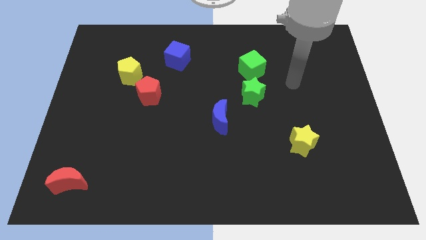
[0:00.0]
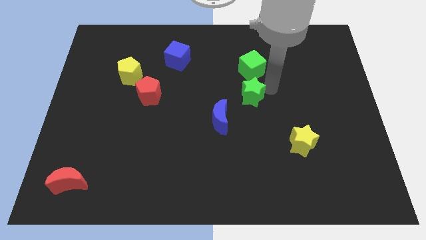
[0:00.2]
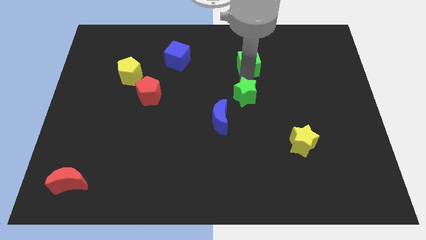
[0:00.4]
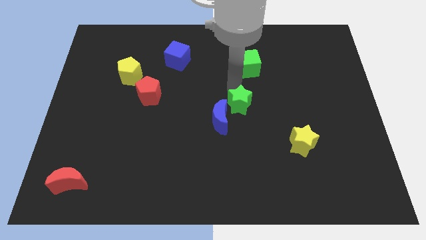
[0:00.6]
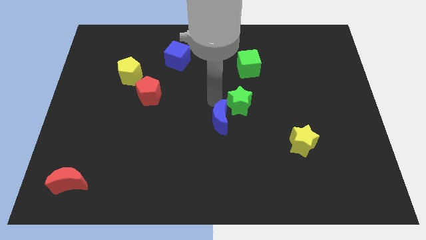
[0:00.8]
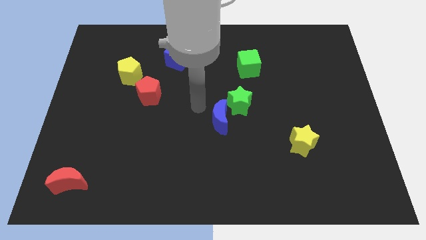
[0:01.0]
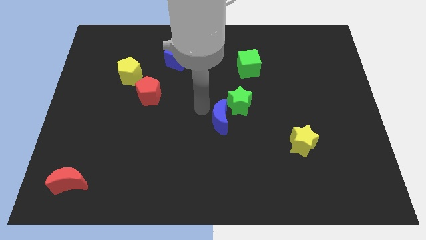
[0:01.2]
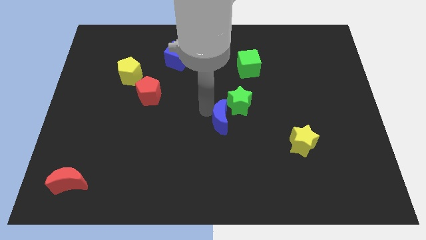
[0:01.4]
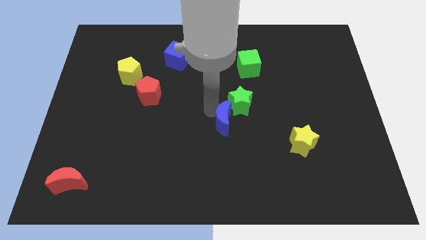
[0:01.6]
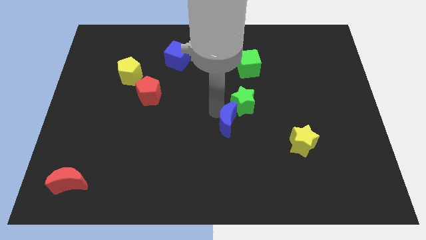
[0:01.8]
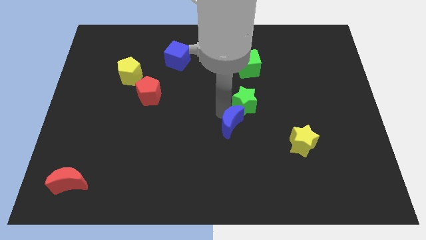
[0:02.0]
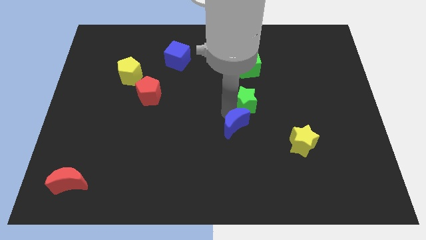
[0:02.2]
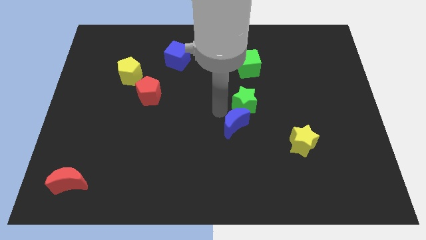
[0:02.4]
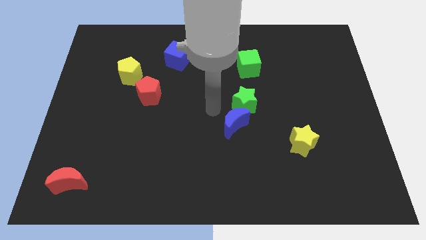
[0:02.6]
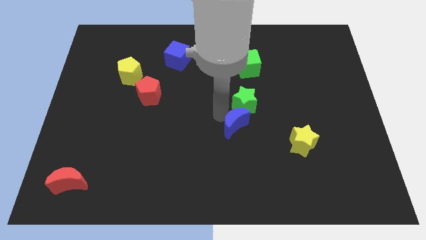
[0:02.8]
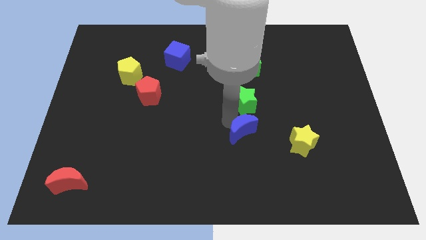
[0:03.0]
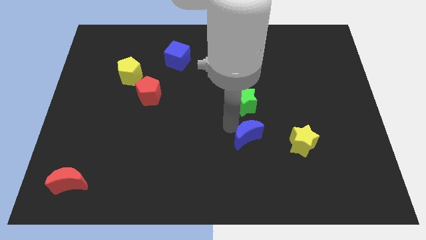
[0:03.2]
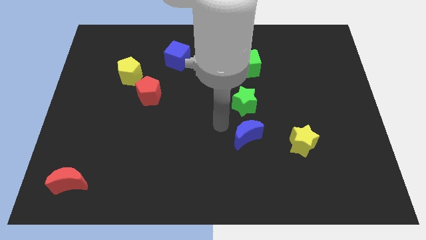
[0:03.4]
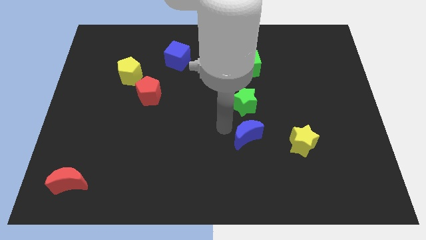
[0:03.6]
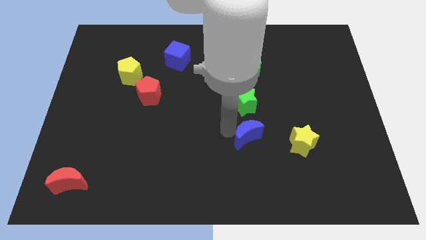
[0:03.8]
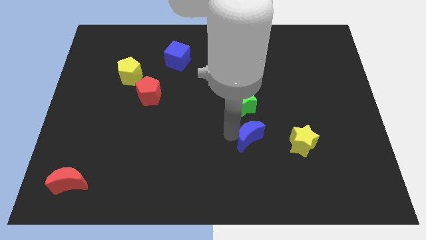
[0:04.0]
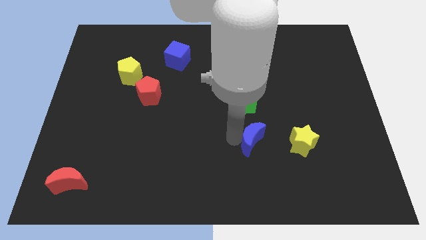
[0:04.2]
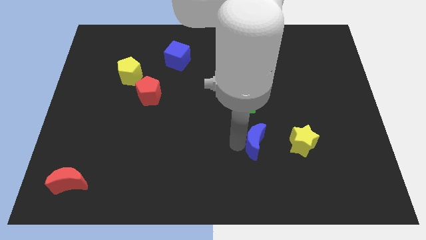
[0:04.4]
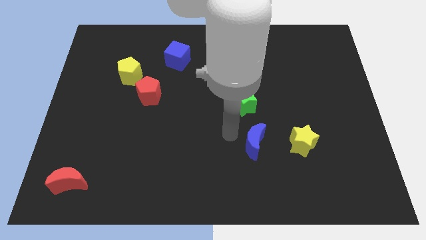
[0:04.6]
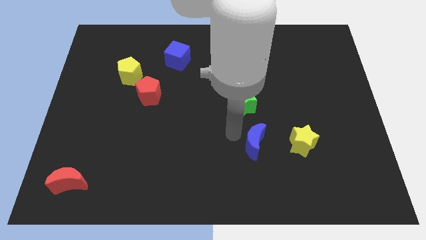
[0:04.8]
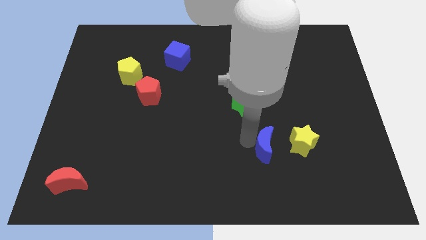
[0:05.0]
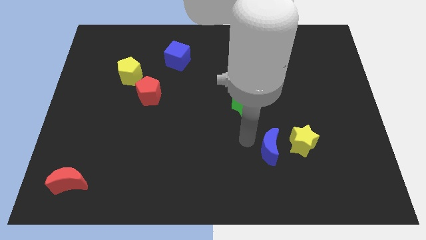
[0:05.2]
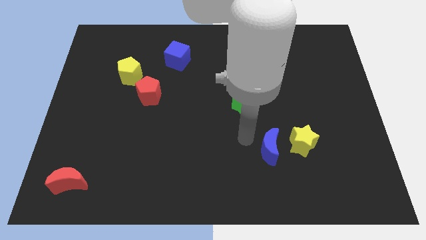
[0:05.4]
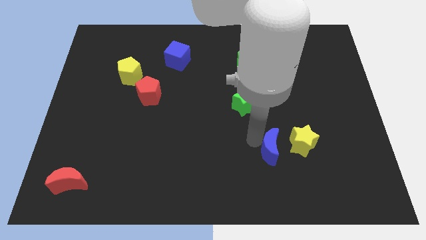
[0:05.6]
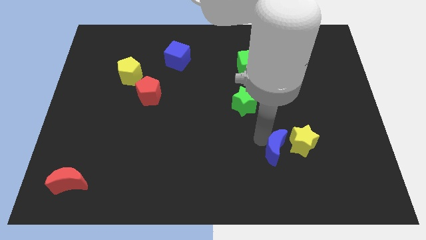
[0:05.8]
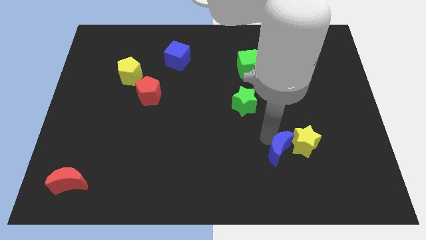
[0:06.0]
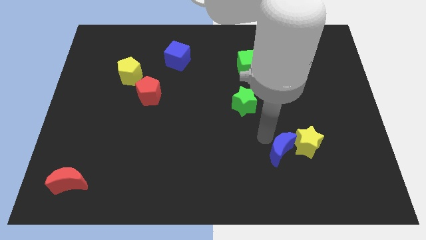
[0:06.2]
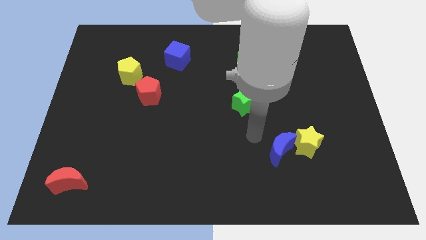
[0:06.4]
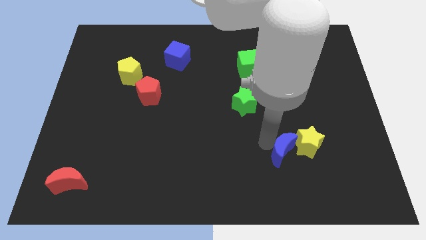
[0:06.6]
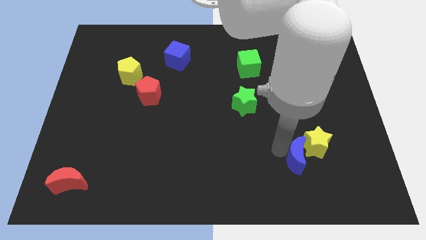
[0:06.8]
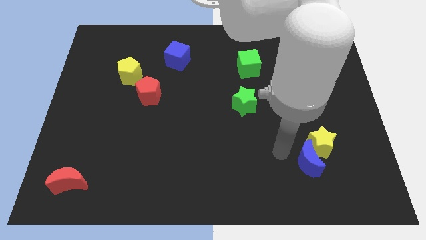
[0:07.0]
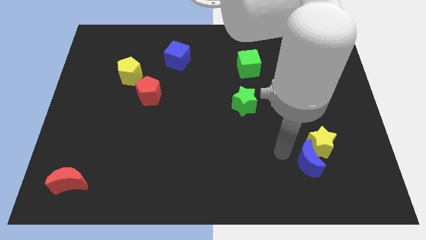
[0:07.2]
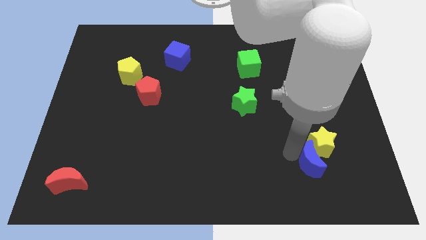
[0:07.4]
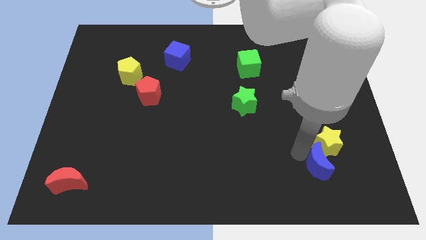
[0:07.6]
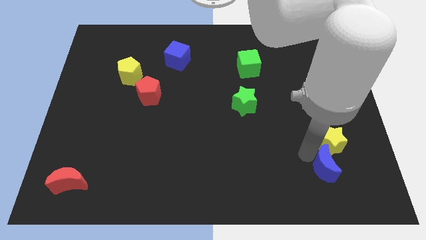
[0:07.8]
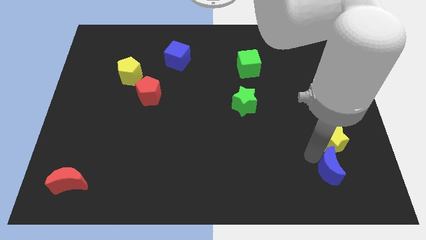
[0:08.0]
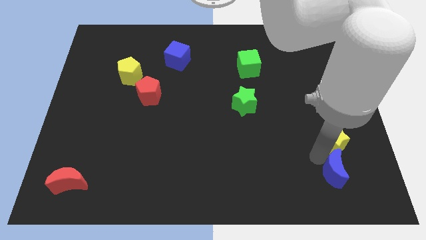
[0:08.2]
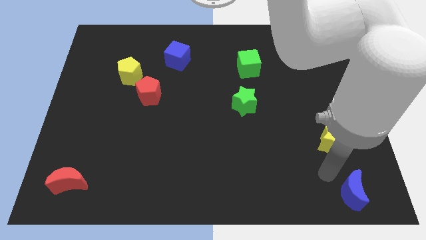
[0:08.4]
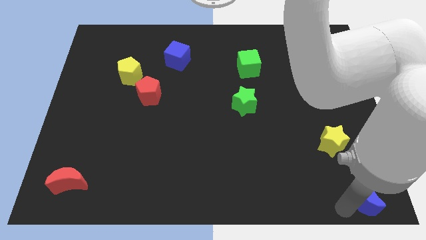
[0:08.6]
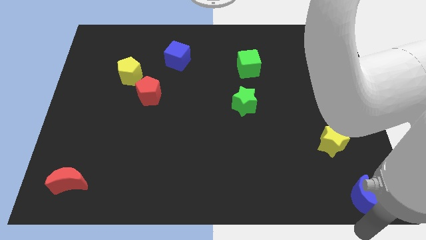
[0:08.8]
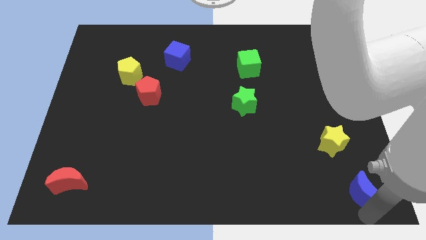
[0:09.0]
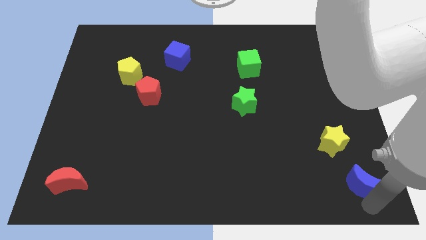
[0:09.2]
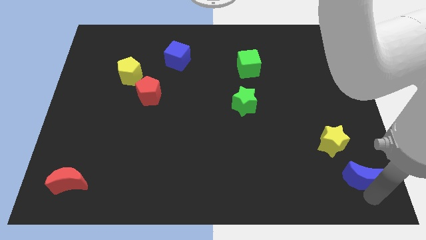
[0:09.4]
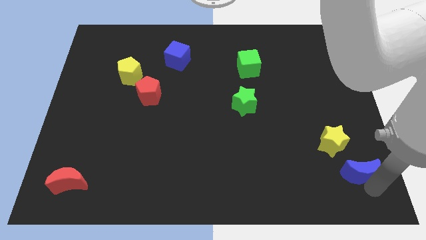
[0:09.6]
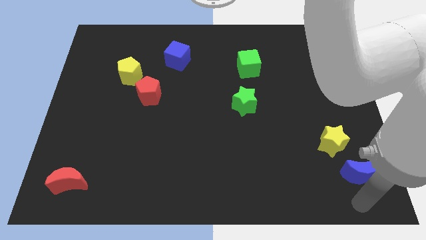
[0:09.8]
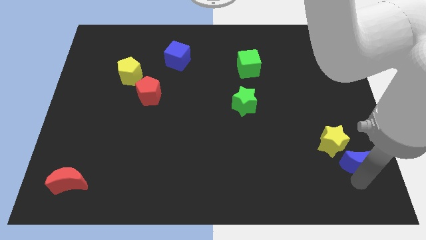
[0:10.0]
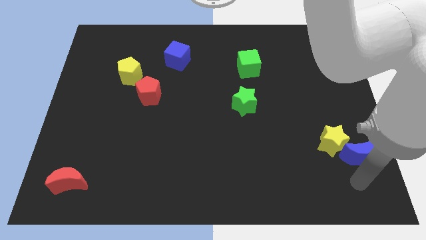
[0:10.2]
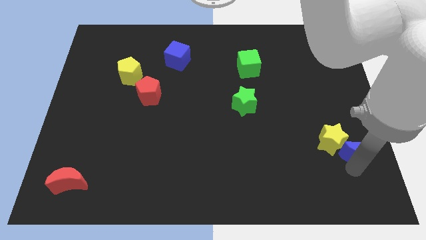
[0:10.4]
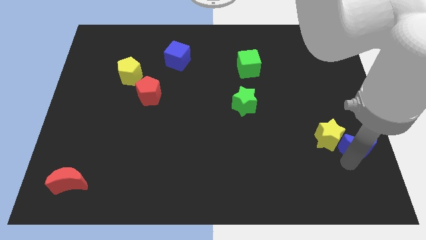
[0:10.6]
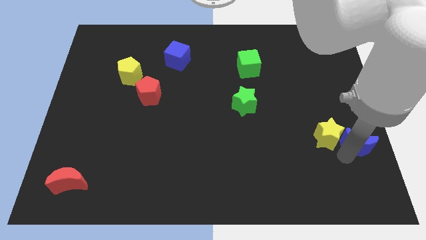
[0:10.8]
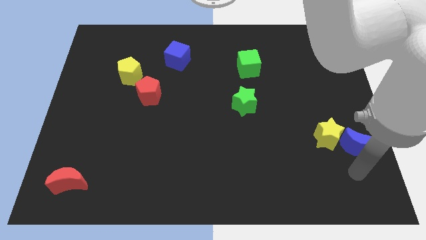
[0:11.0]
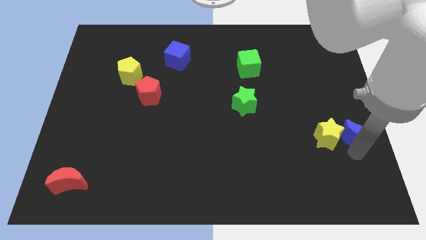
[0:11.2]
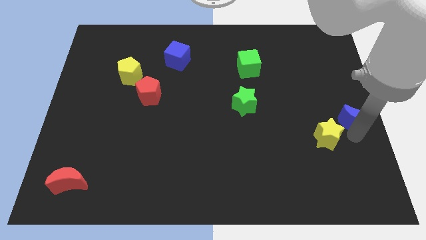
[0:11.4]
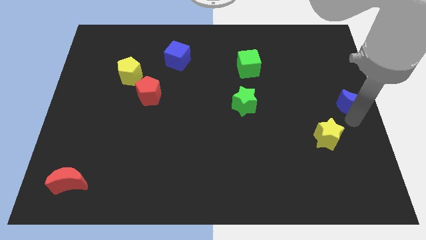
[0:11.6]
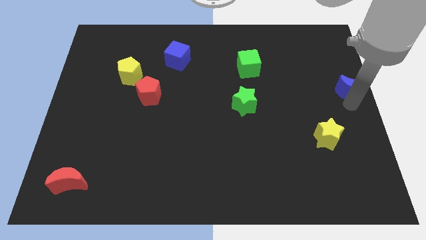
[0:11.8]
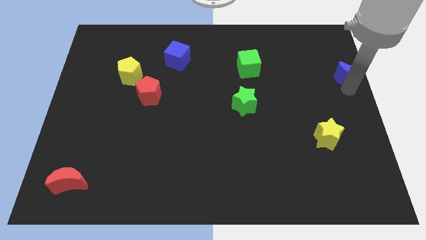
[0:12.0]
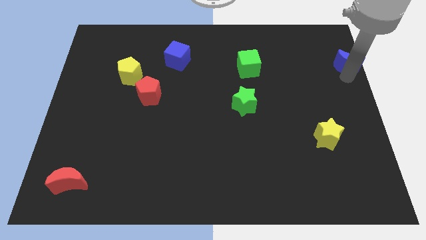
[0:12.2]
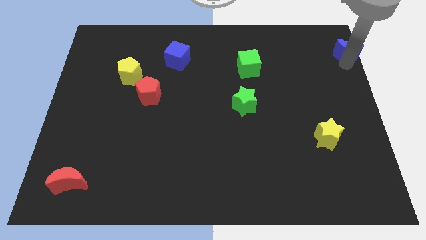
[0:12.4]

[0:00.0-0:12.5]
move the blue moon to the top right of the board

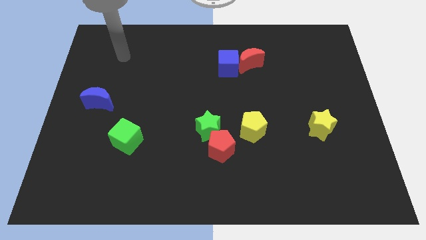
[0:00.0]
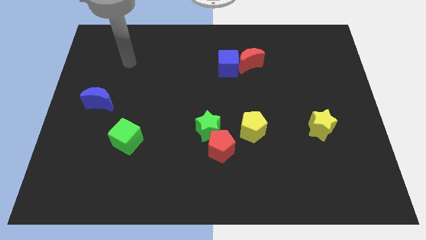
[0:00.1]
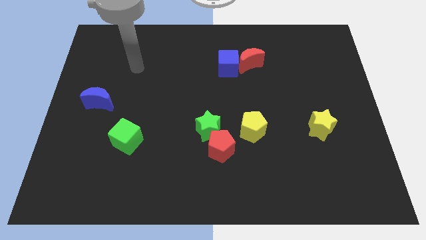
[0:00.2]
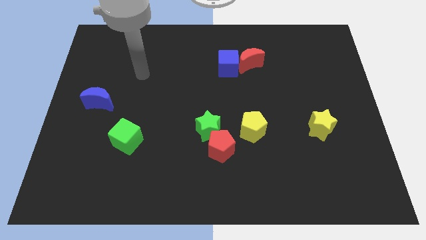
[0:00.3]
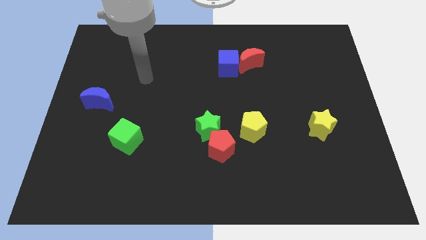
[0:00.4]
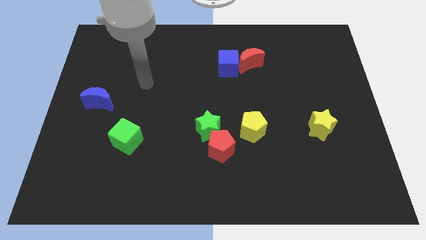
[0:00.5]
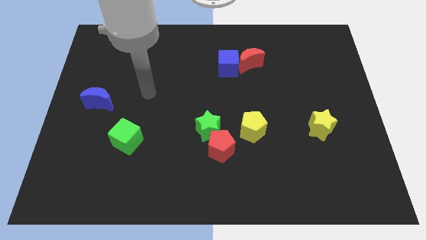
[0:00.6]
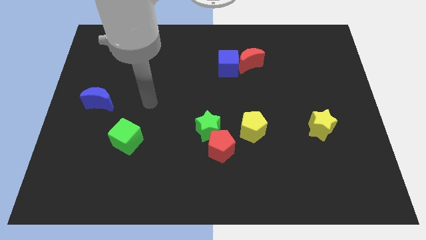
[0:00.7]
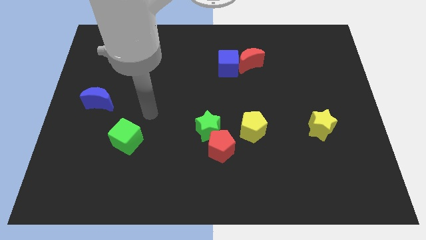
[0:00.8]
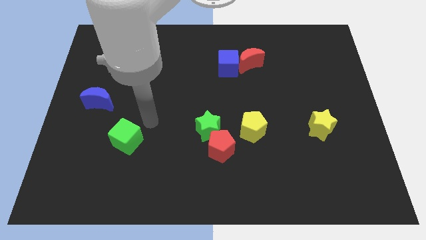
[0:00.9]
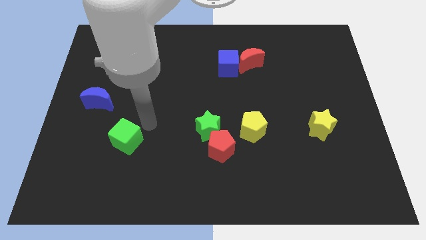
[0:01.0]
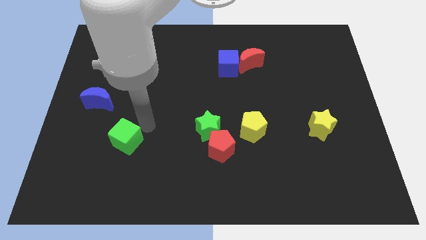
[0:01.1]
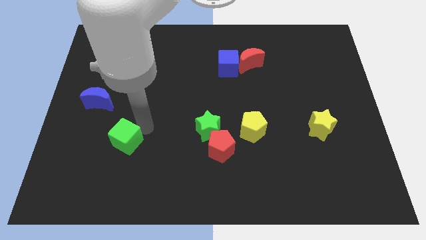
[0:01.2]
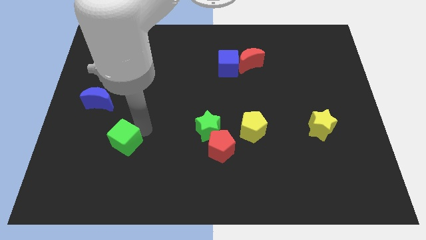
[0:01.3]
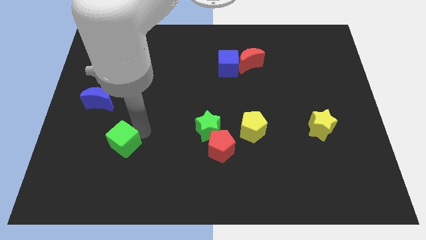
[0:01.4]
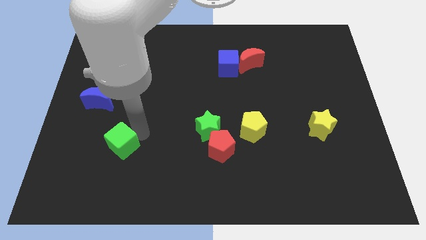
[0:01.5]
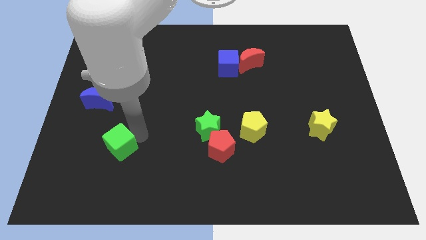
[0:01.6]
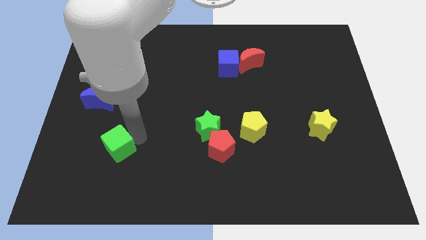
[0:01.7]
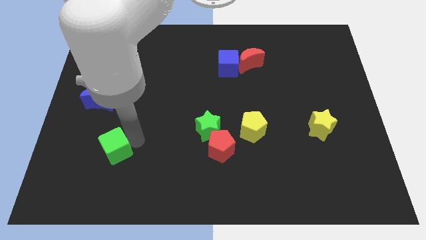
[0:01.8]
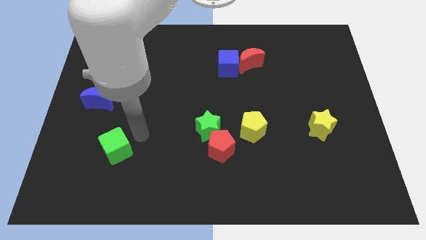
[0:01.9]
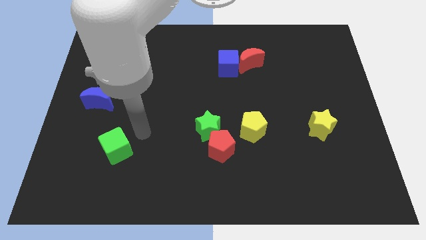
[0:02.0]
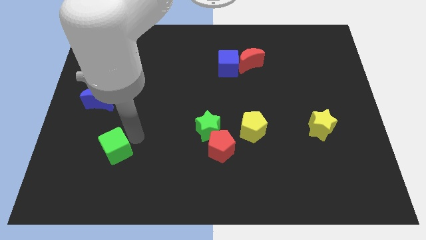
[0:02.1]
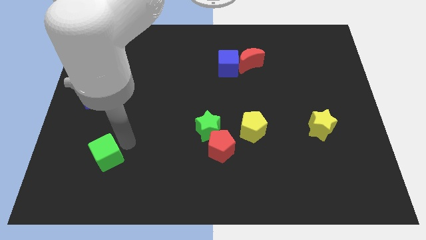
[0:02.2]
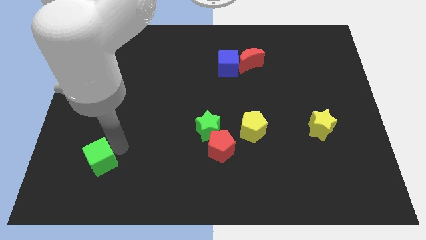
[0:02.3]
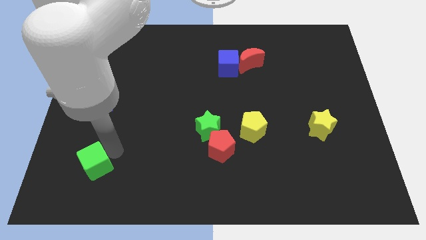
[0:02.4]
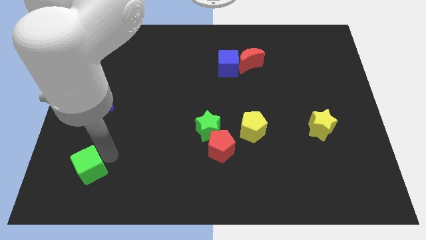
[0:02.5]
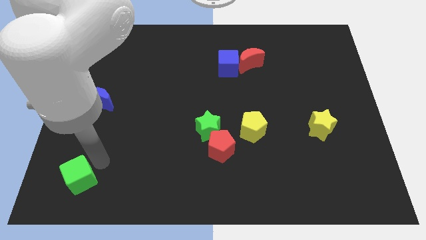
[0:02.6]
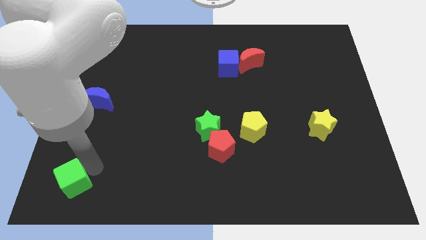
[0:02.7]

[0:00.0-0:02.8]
move the green cube to the bottom left
